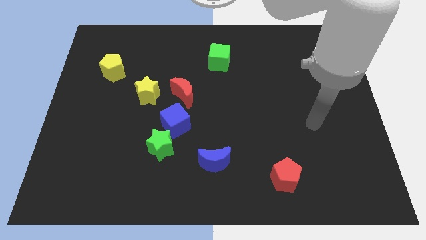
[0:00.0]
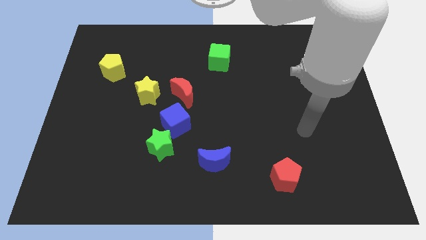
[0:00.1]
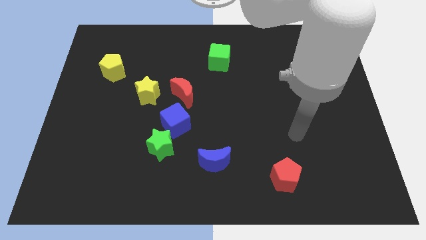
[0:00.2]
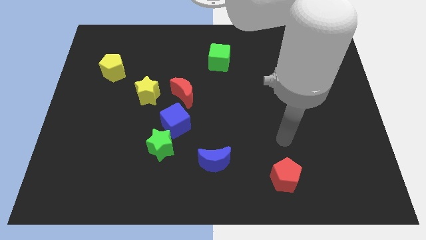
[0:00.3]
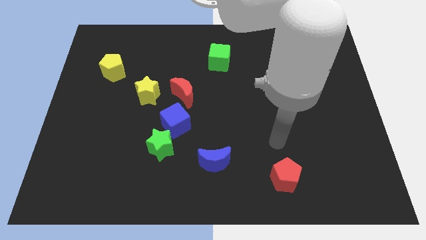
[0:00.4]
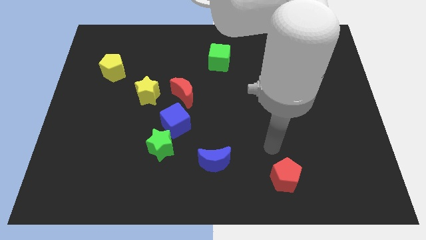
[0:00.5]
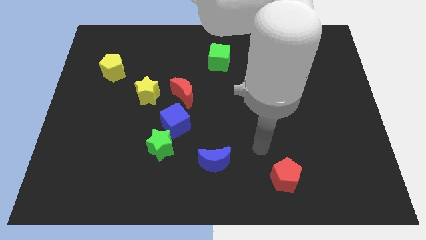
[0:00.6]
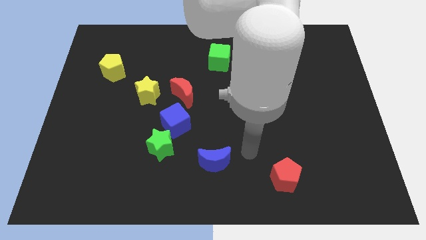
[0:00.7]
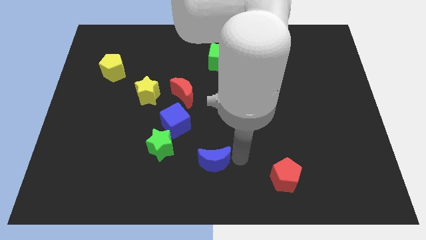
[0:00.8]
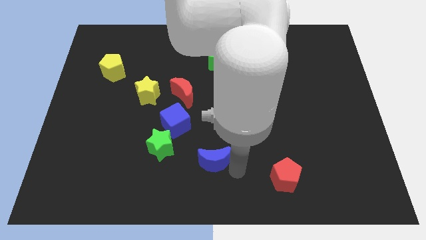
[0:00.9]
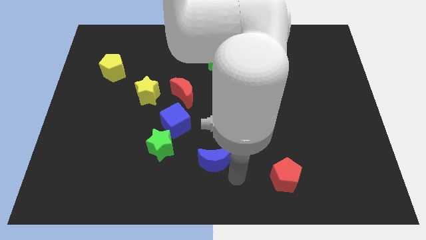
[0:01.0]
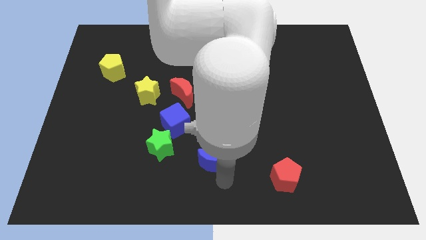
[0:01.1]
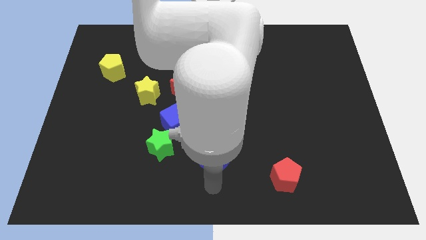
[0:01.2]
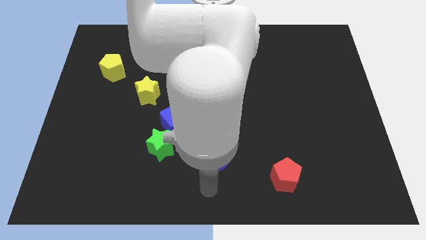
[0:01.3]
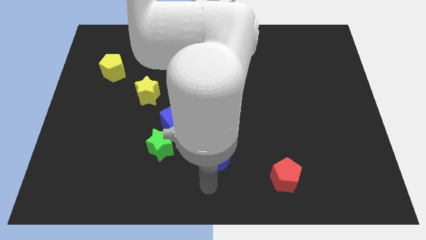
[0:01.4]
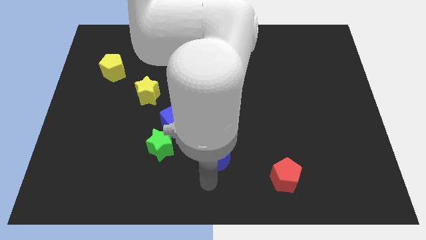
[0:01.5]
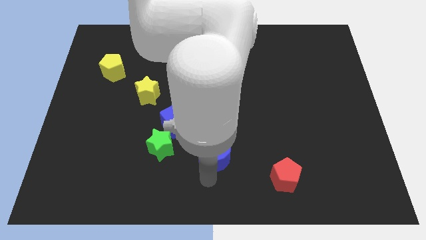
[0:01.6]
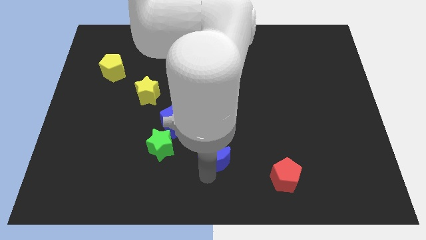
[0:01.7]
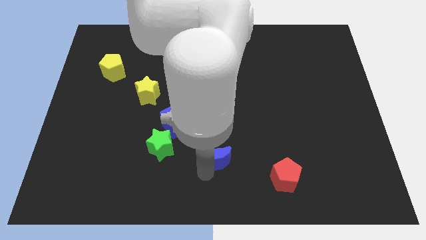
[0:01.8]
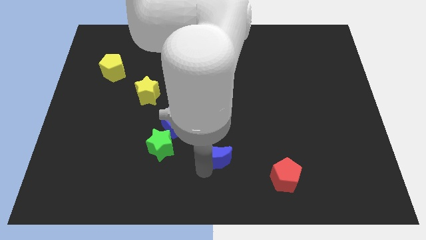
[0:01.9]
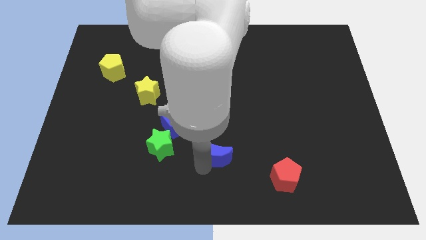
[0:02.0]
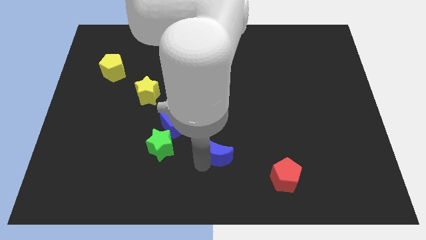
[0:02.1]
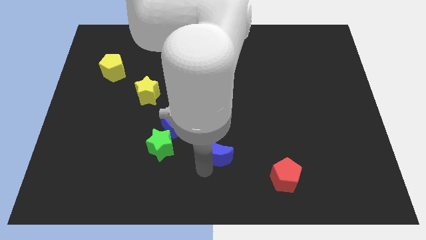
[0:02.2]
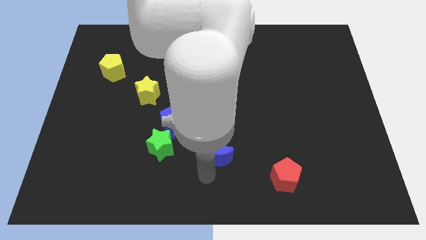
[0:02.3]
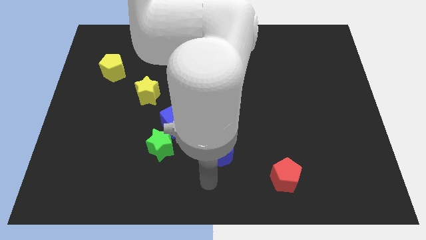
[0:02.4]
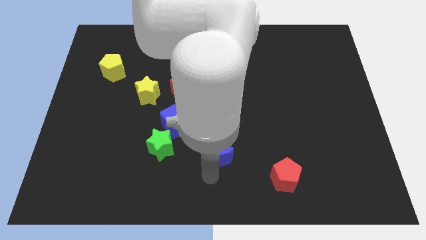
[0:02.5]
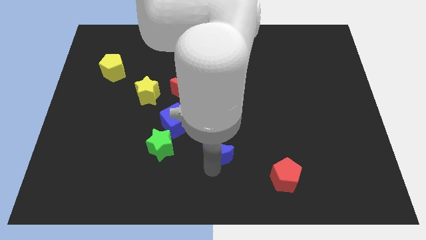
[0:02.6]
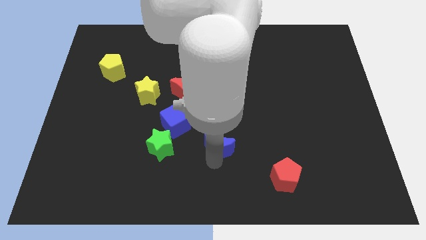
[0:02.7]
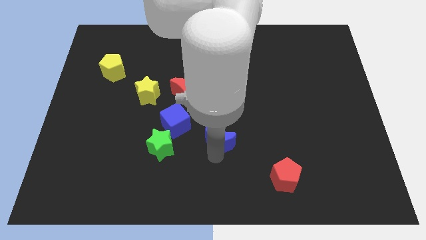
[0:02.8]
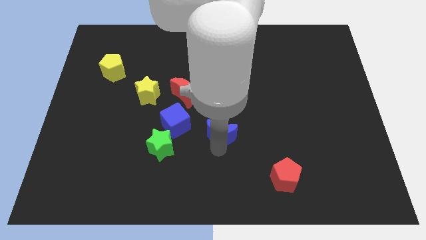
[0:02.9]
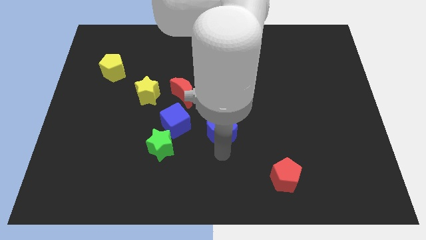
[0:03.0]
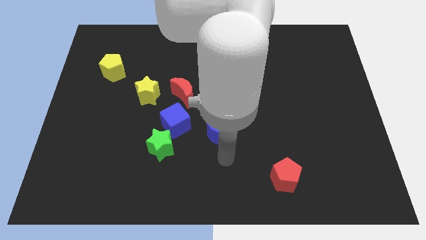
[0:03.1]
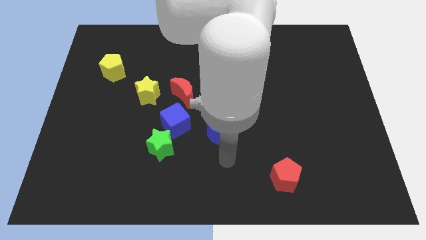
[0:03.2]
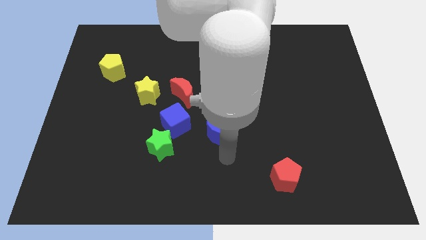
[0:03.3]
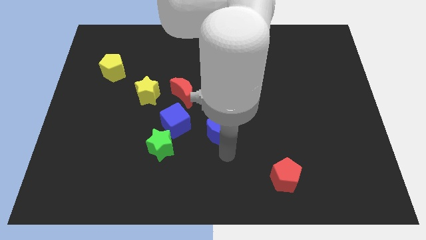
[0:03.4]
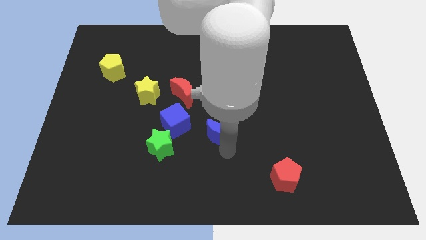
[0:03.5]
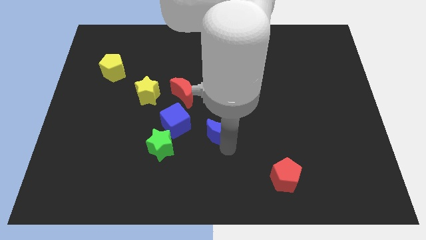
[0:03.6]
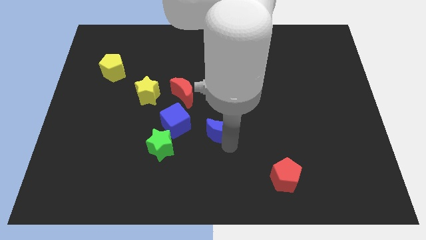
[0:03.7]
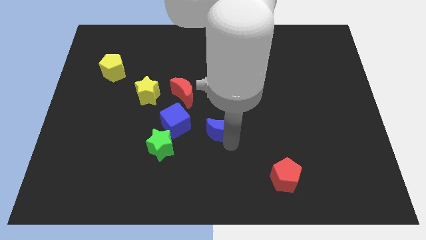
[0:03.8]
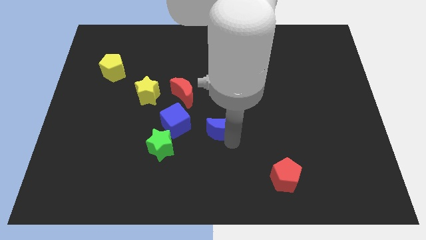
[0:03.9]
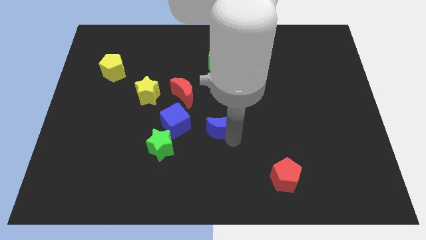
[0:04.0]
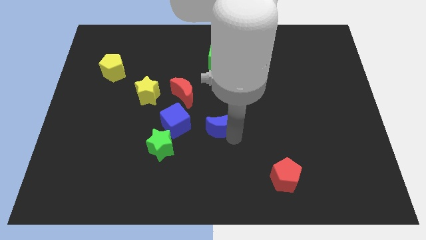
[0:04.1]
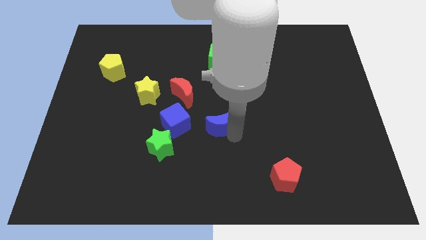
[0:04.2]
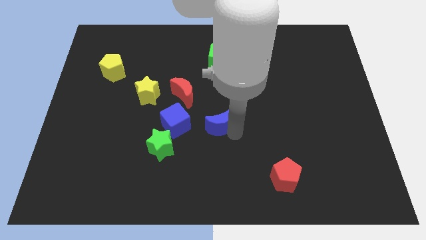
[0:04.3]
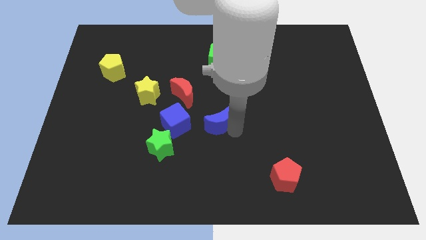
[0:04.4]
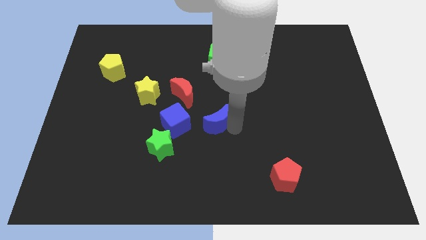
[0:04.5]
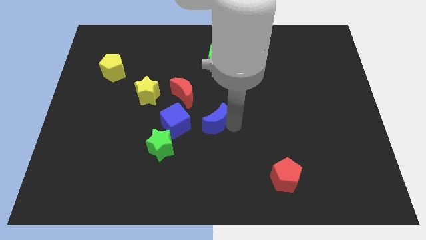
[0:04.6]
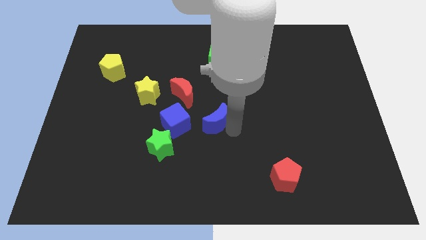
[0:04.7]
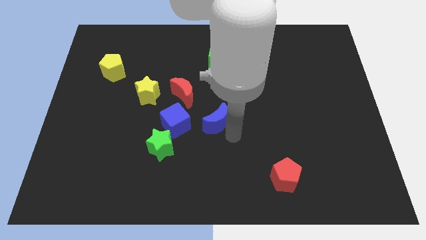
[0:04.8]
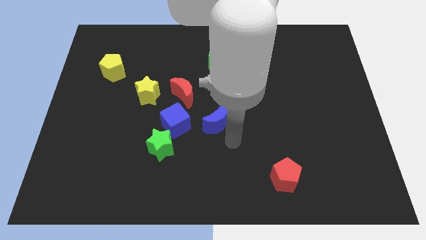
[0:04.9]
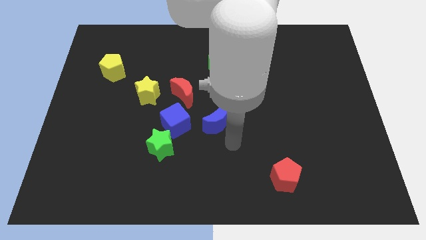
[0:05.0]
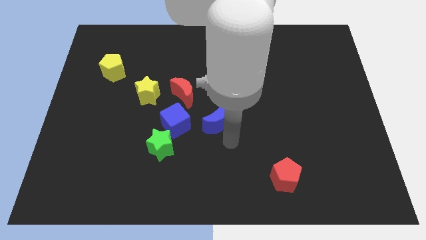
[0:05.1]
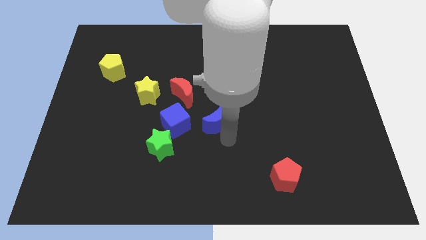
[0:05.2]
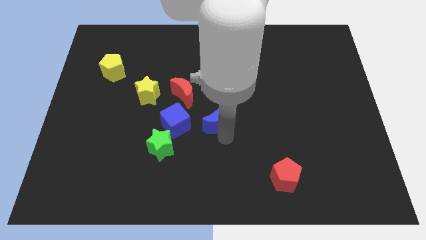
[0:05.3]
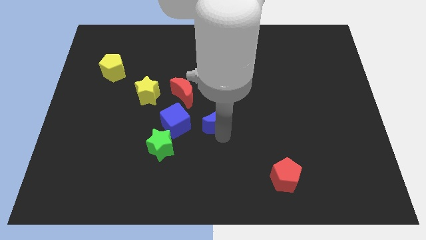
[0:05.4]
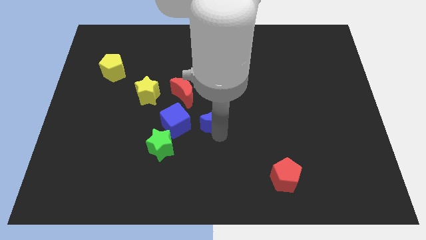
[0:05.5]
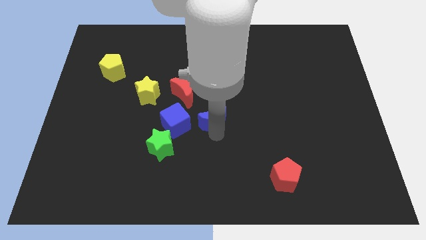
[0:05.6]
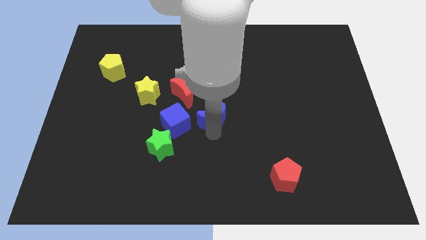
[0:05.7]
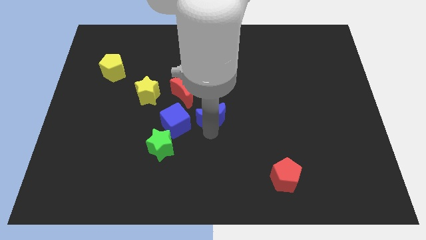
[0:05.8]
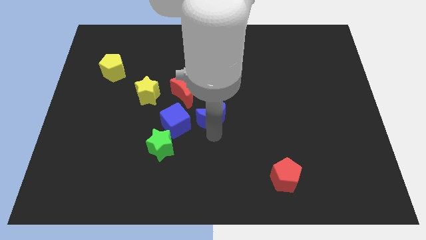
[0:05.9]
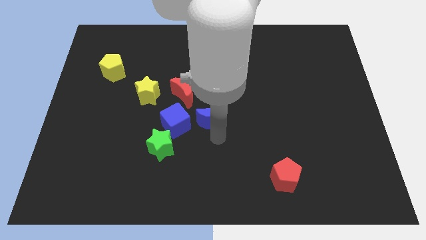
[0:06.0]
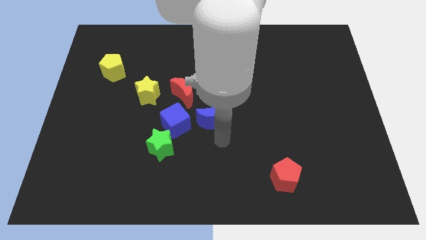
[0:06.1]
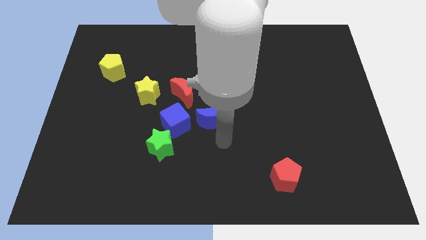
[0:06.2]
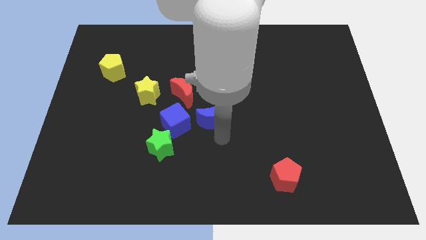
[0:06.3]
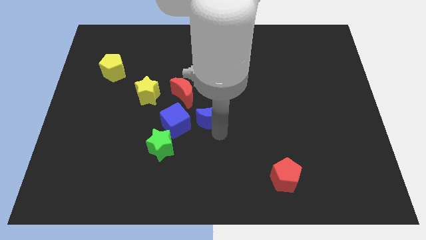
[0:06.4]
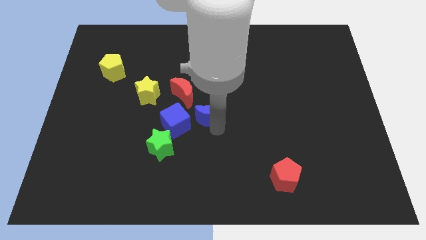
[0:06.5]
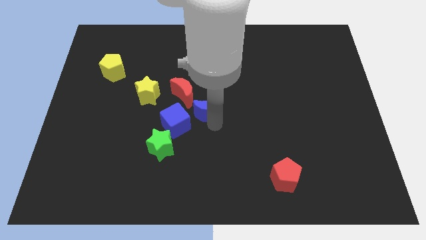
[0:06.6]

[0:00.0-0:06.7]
slide the blue moon somewhat up and left

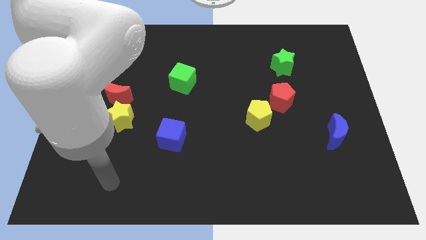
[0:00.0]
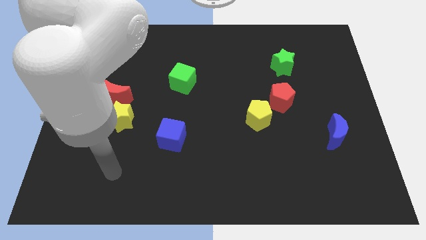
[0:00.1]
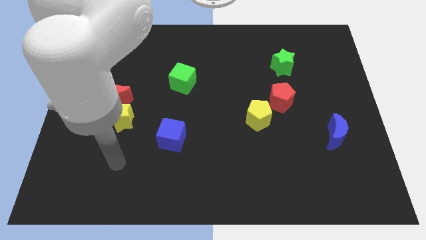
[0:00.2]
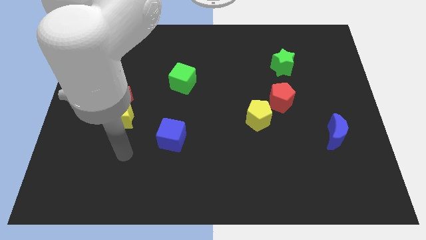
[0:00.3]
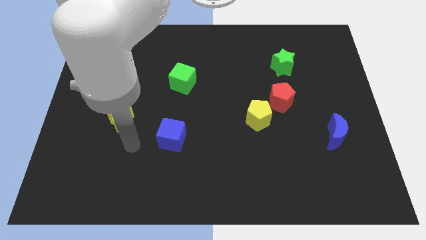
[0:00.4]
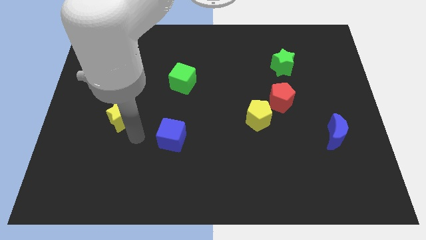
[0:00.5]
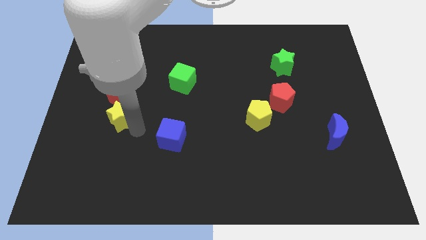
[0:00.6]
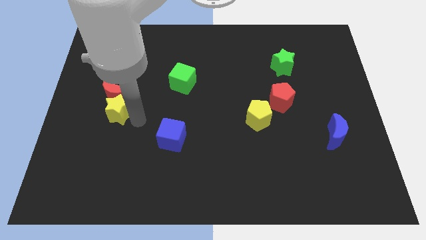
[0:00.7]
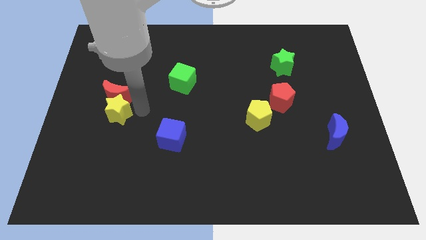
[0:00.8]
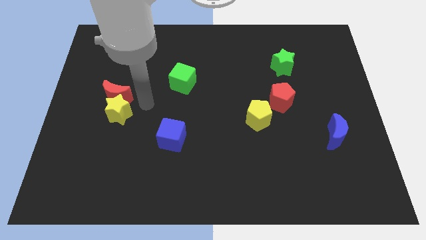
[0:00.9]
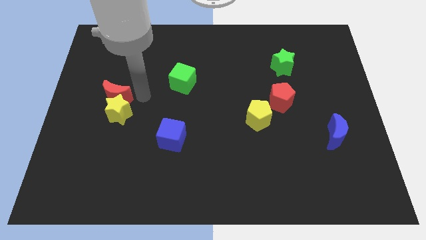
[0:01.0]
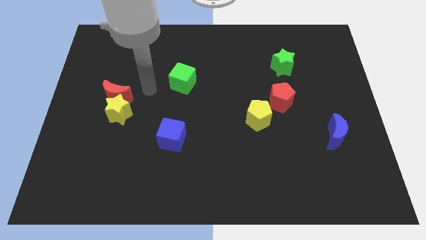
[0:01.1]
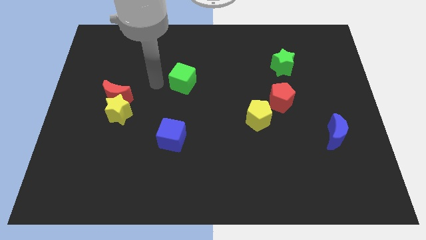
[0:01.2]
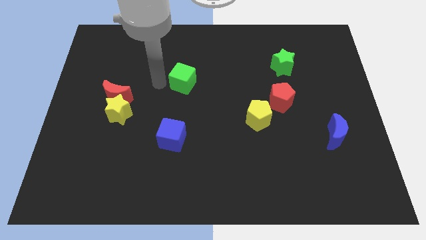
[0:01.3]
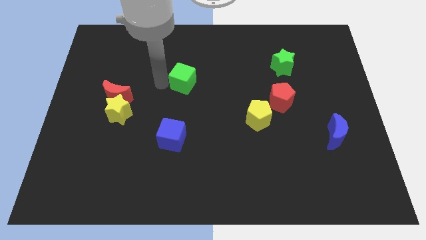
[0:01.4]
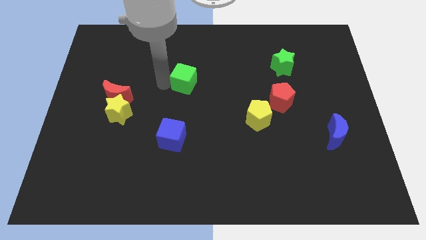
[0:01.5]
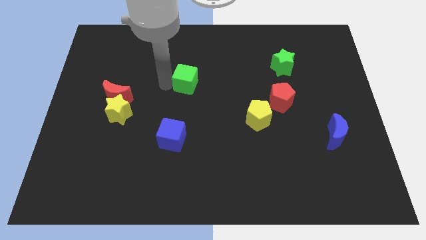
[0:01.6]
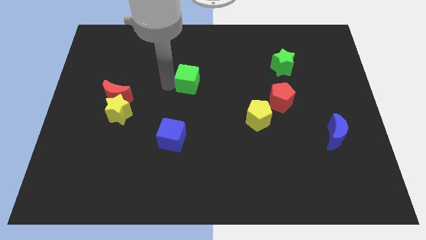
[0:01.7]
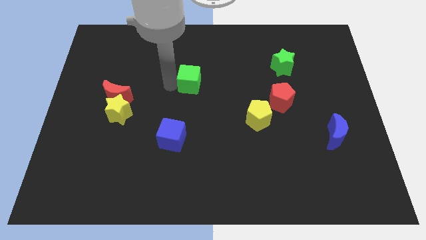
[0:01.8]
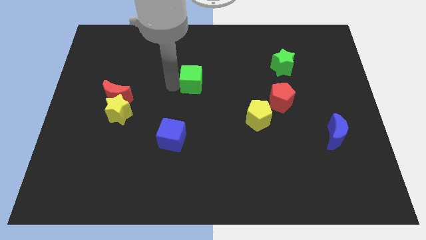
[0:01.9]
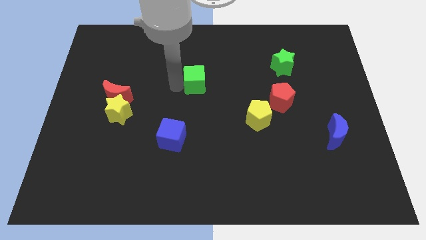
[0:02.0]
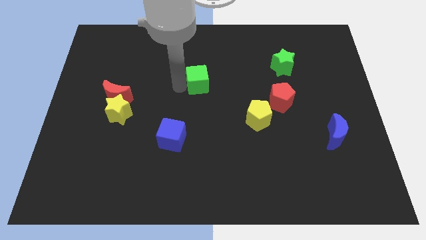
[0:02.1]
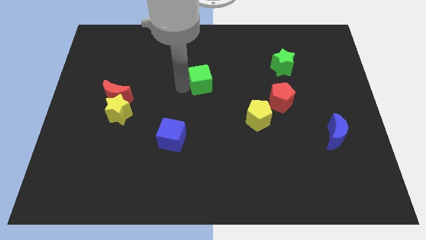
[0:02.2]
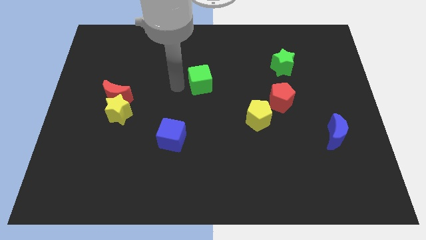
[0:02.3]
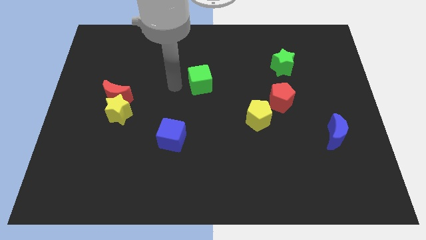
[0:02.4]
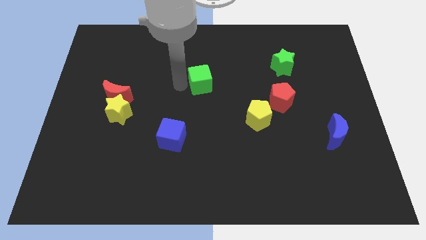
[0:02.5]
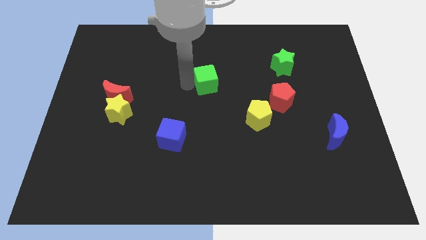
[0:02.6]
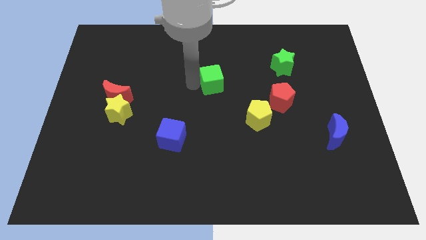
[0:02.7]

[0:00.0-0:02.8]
slightly move the green cube right
